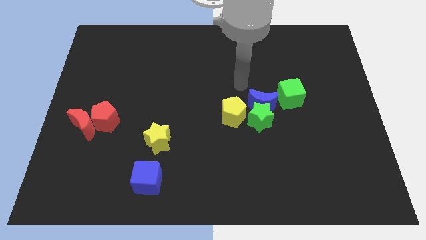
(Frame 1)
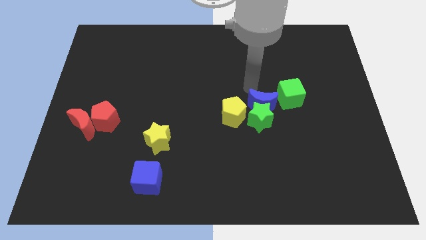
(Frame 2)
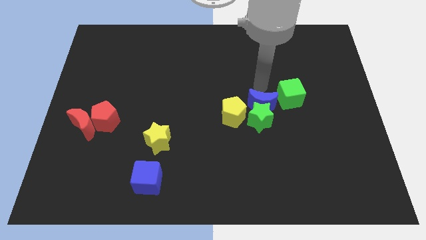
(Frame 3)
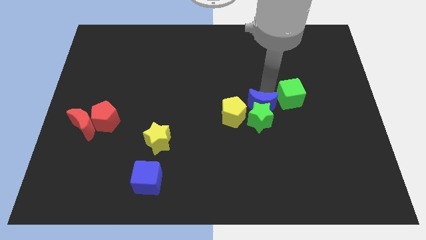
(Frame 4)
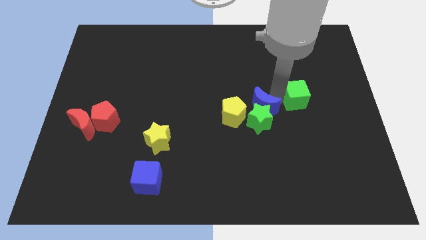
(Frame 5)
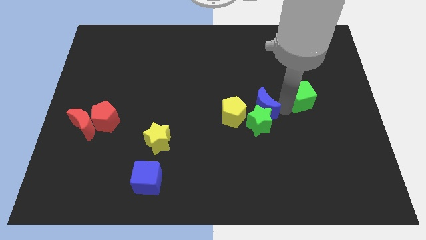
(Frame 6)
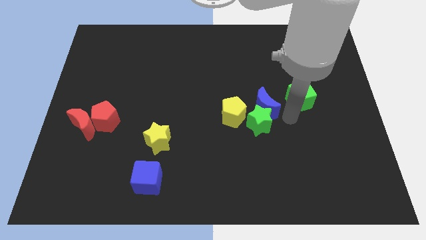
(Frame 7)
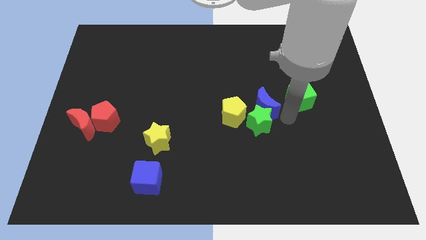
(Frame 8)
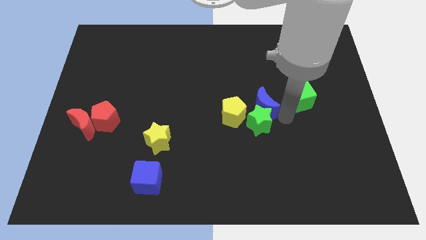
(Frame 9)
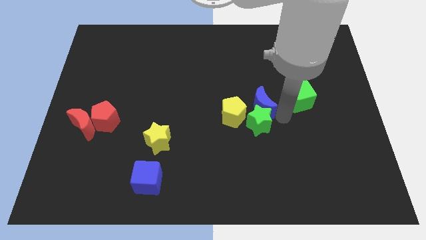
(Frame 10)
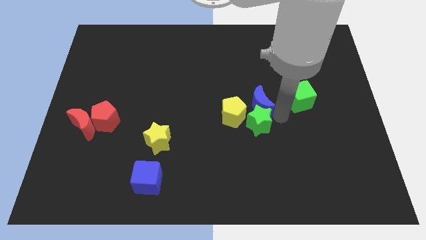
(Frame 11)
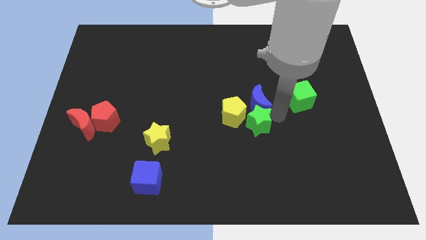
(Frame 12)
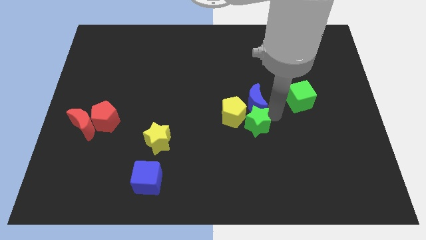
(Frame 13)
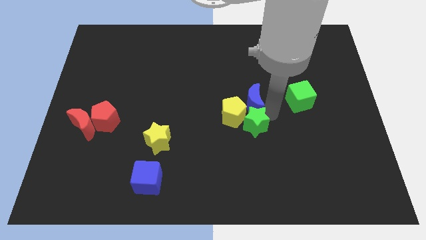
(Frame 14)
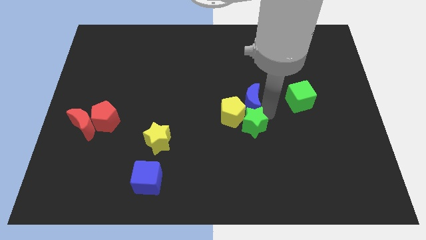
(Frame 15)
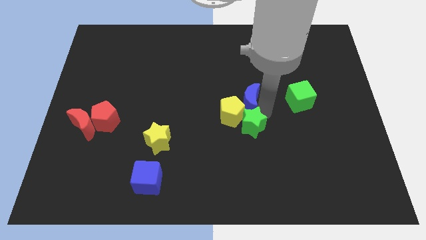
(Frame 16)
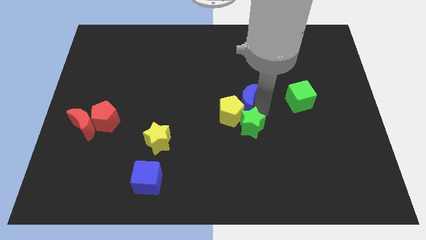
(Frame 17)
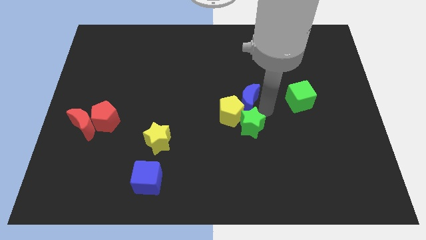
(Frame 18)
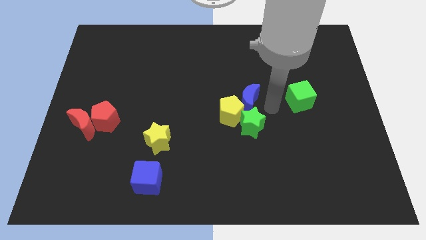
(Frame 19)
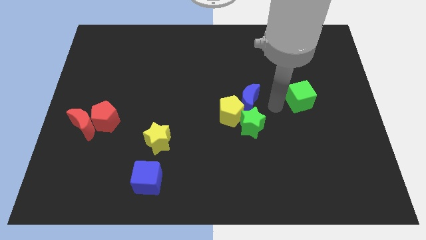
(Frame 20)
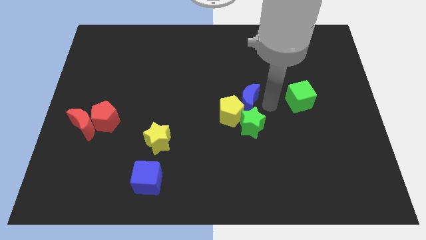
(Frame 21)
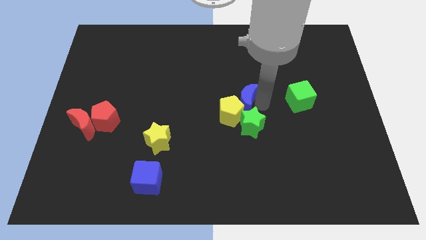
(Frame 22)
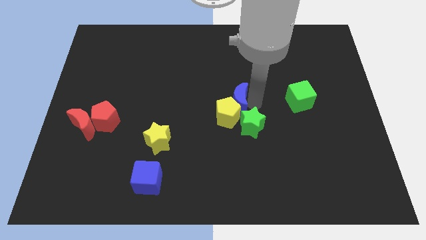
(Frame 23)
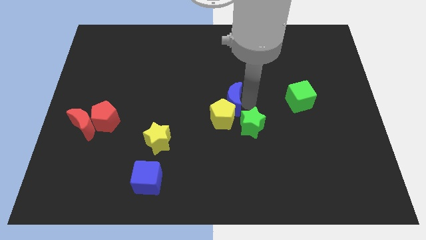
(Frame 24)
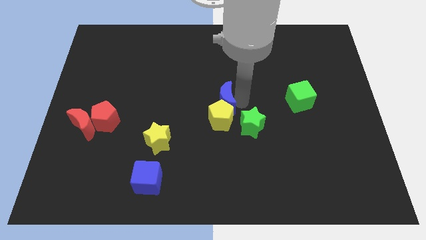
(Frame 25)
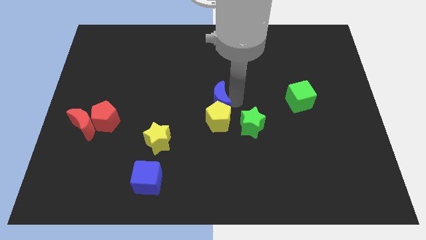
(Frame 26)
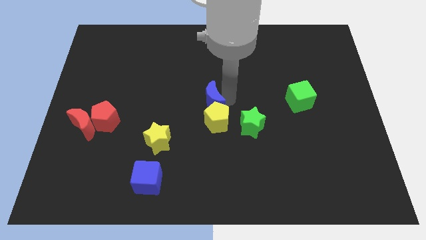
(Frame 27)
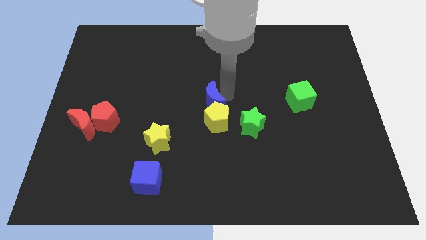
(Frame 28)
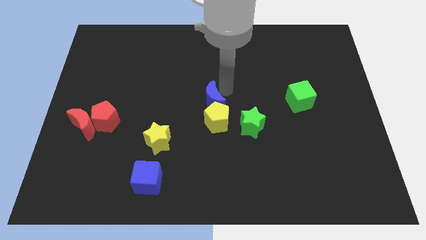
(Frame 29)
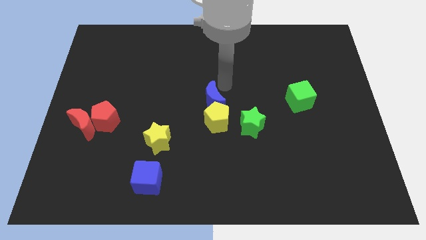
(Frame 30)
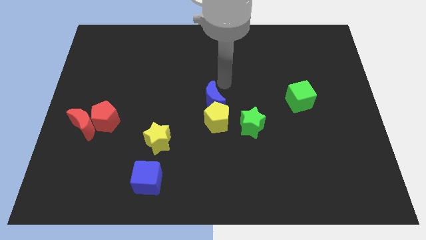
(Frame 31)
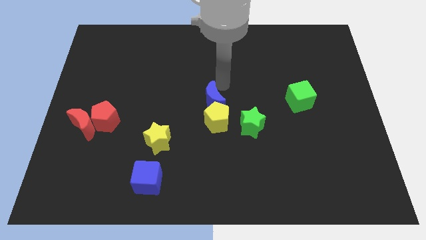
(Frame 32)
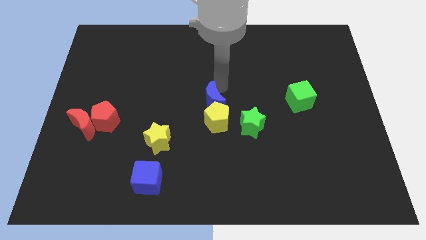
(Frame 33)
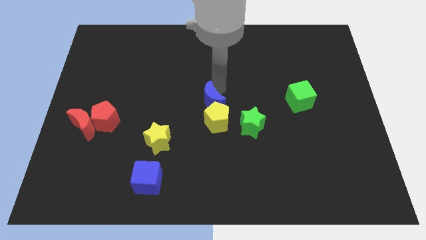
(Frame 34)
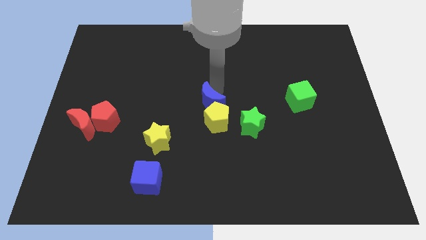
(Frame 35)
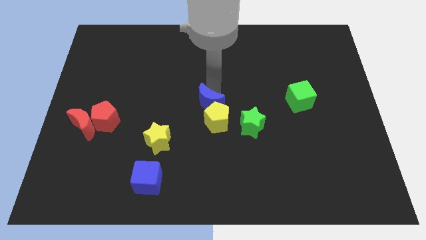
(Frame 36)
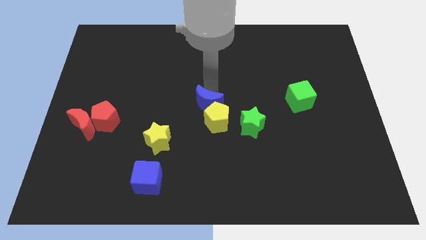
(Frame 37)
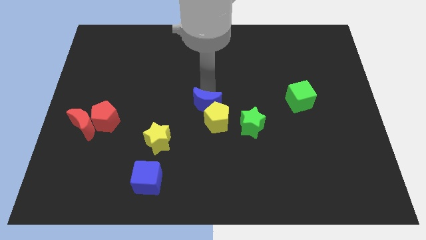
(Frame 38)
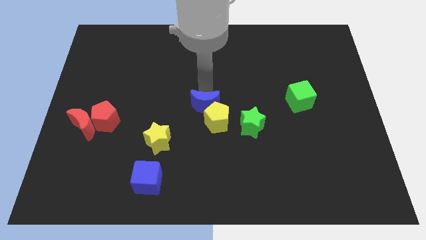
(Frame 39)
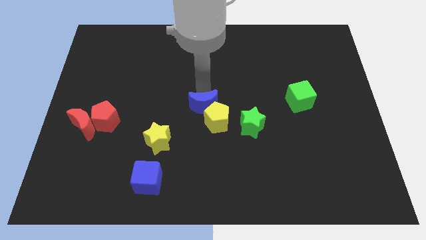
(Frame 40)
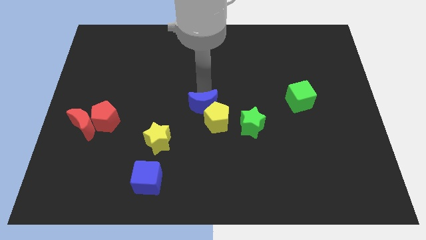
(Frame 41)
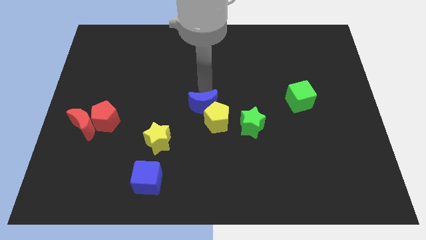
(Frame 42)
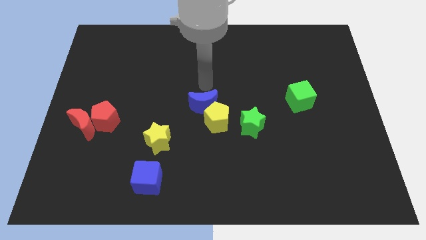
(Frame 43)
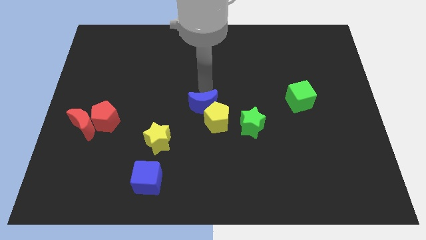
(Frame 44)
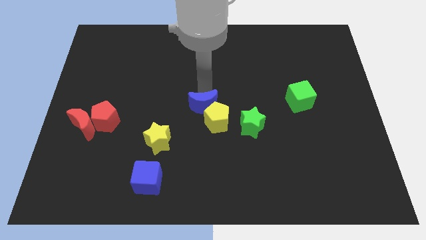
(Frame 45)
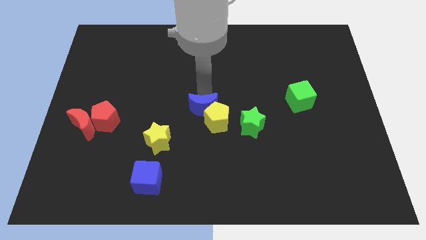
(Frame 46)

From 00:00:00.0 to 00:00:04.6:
slide the blue moon diagonally downwards and to the left a little

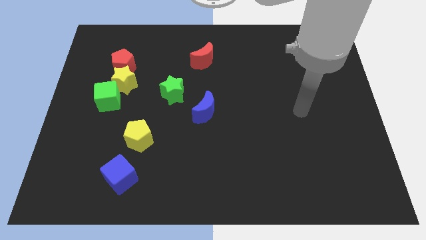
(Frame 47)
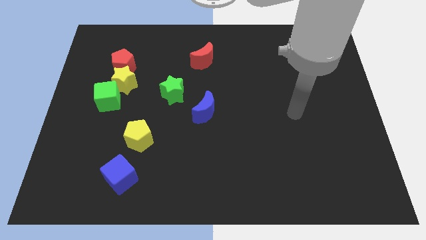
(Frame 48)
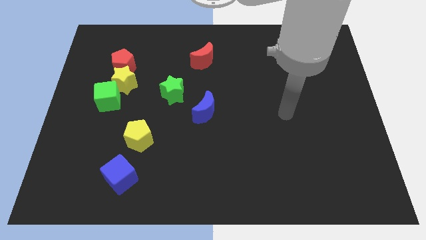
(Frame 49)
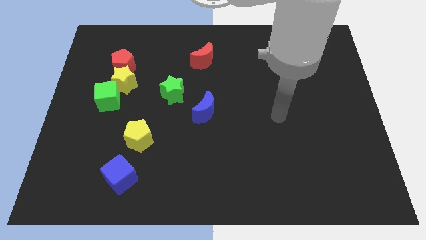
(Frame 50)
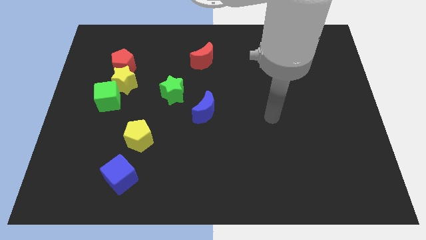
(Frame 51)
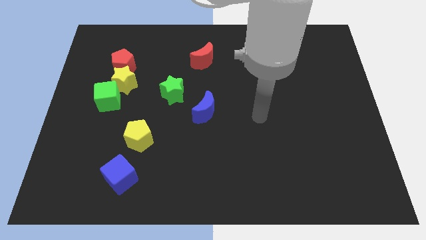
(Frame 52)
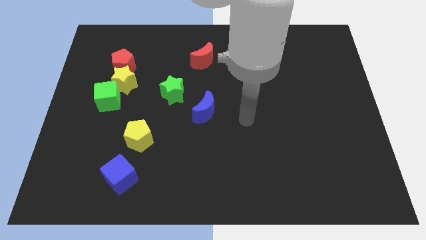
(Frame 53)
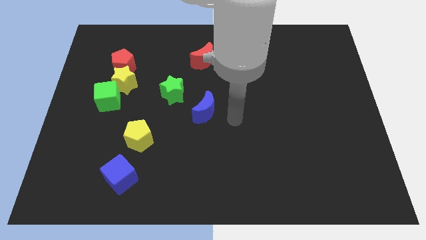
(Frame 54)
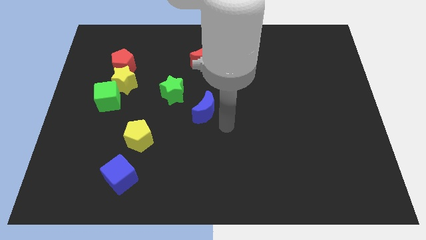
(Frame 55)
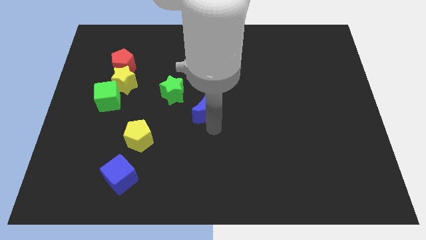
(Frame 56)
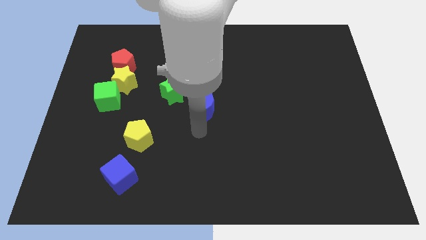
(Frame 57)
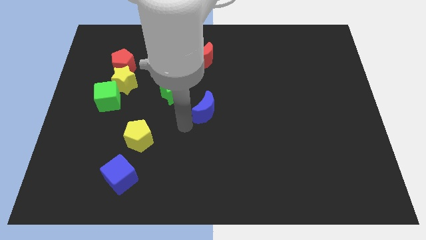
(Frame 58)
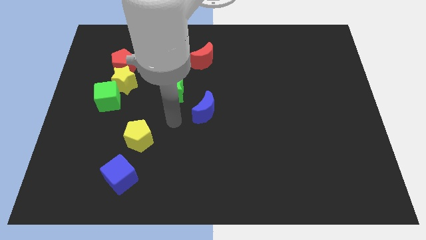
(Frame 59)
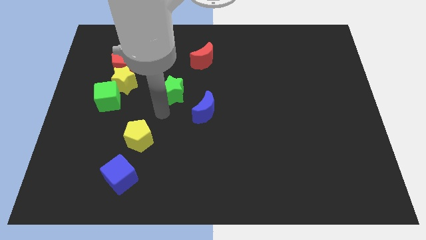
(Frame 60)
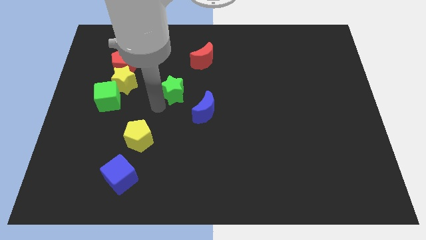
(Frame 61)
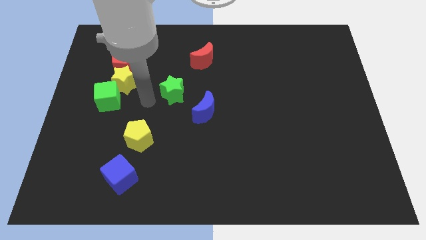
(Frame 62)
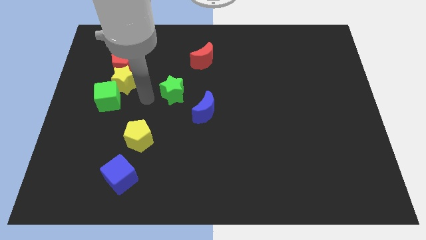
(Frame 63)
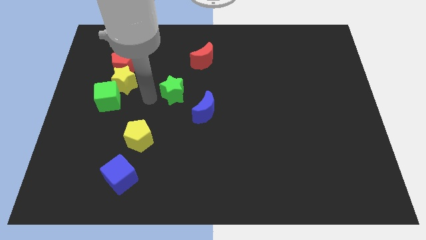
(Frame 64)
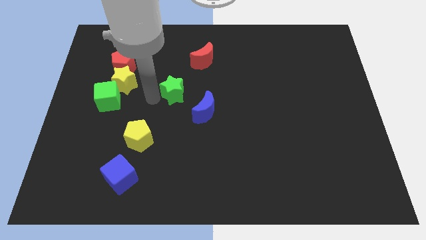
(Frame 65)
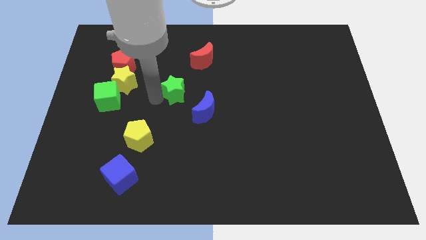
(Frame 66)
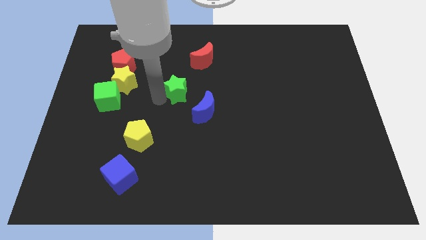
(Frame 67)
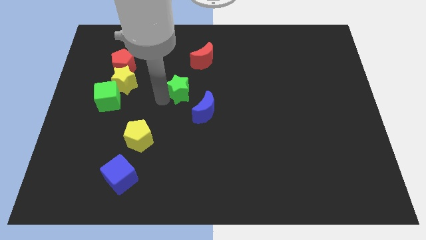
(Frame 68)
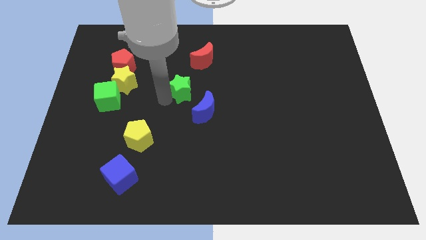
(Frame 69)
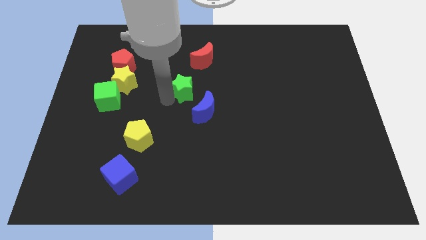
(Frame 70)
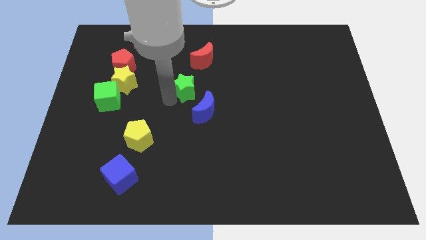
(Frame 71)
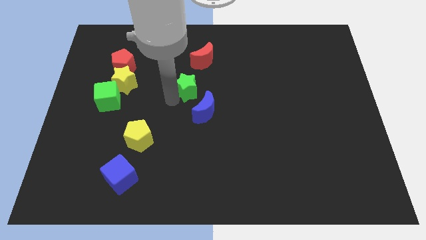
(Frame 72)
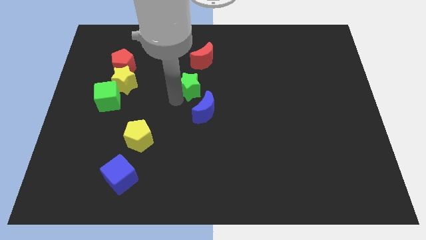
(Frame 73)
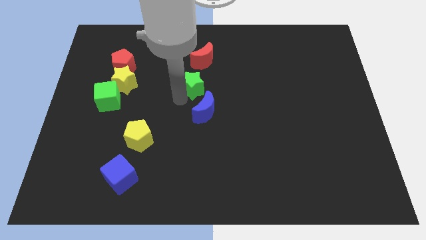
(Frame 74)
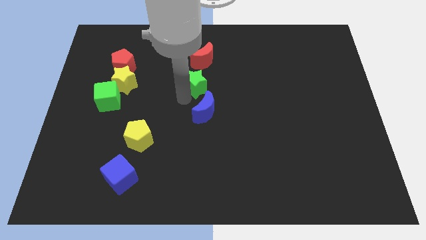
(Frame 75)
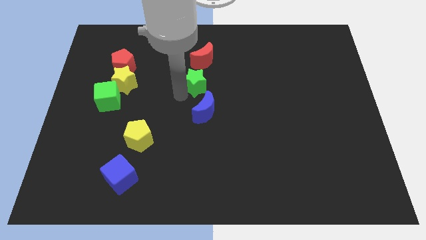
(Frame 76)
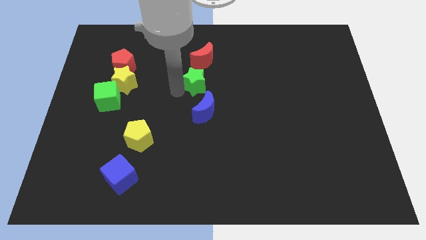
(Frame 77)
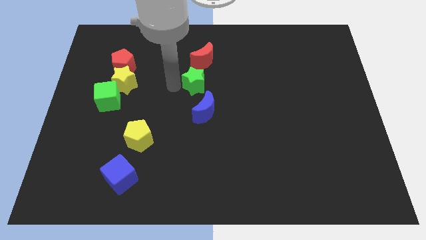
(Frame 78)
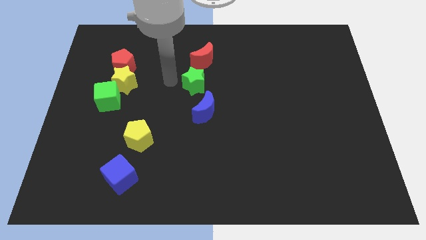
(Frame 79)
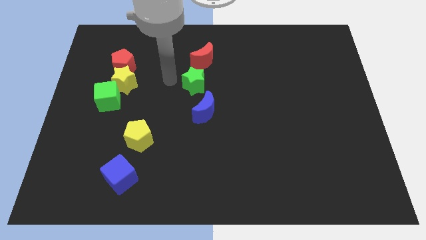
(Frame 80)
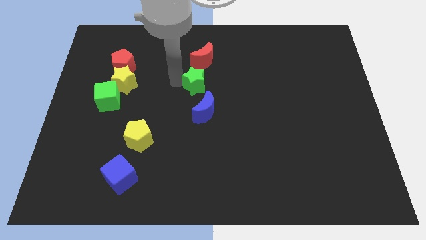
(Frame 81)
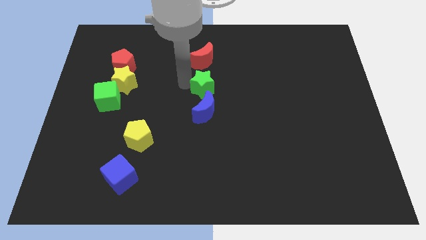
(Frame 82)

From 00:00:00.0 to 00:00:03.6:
slightly move the green star to the right
